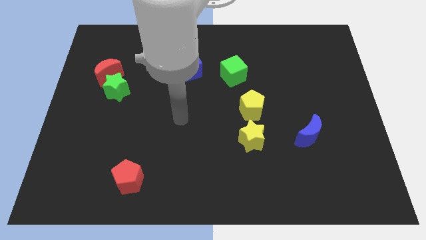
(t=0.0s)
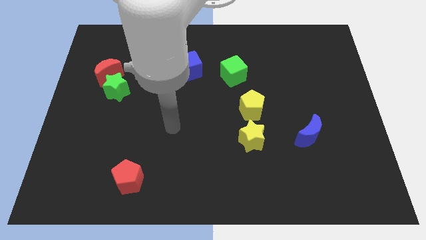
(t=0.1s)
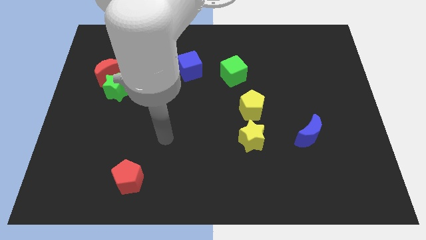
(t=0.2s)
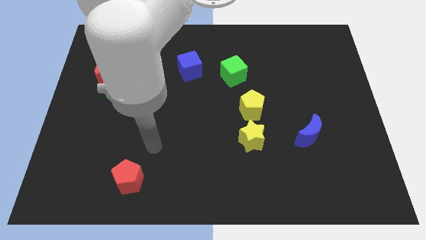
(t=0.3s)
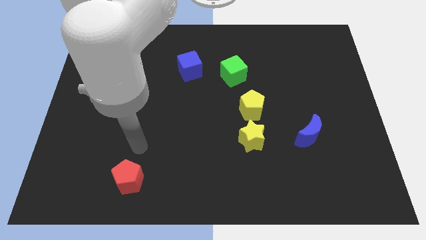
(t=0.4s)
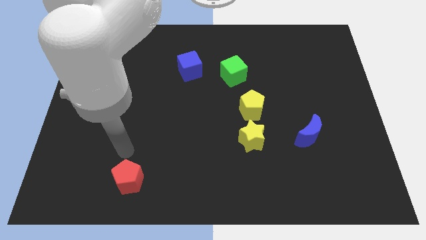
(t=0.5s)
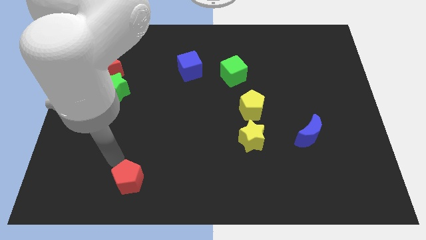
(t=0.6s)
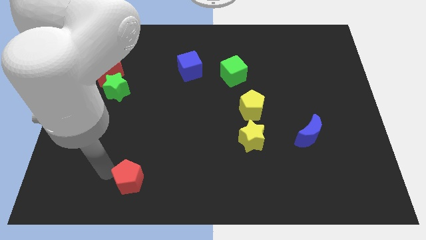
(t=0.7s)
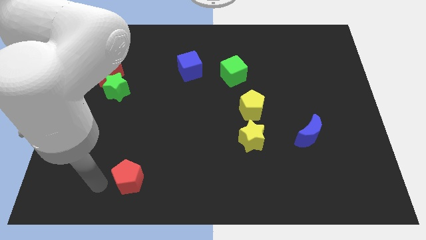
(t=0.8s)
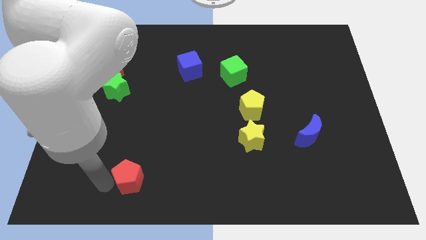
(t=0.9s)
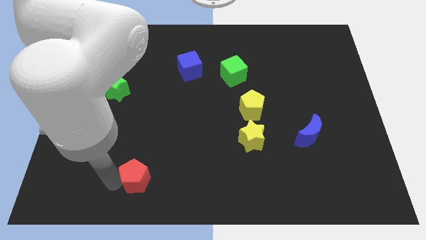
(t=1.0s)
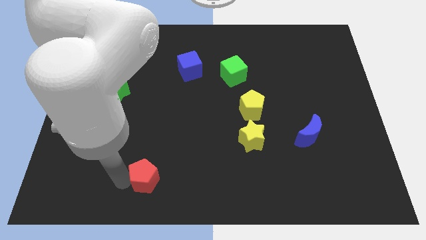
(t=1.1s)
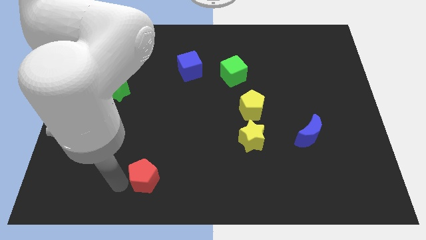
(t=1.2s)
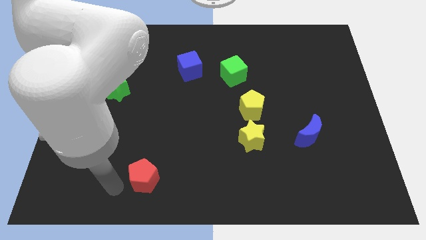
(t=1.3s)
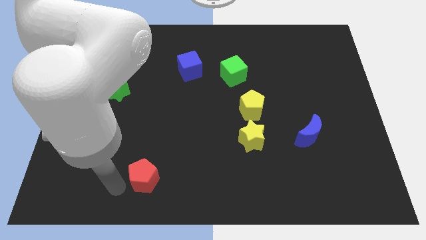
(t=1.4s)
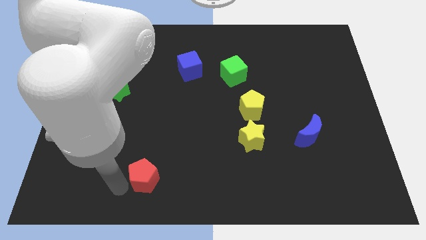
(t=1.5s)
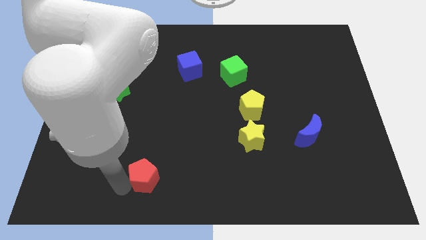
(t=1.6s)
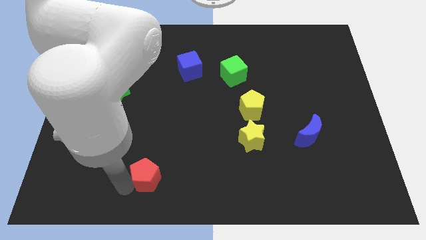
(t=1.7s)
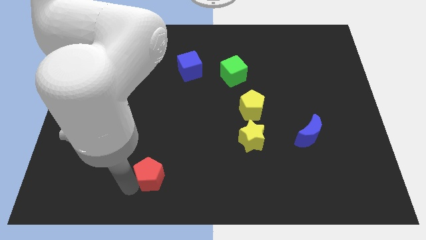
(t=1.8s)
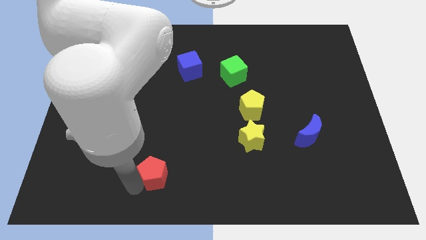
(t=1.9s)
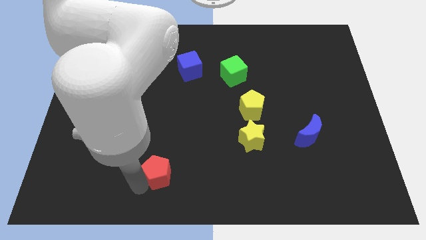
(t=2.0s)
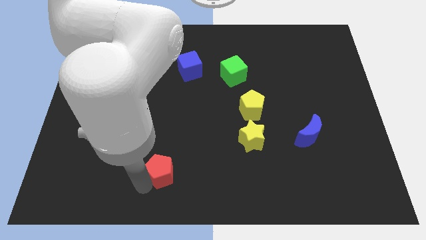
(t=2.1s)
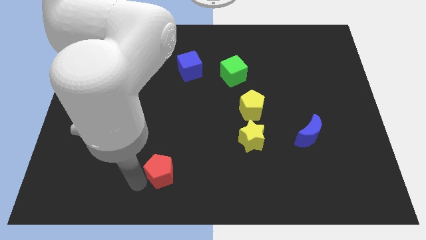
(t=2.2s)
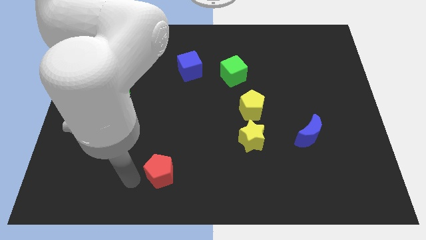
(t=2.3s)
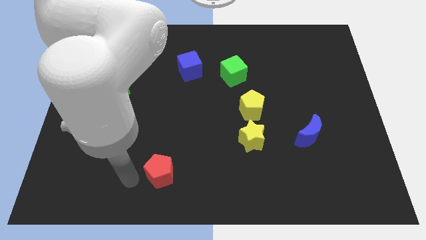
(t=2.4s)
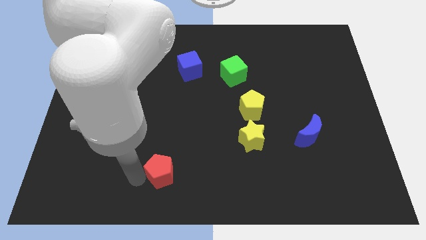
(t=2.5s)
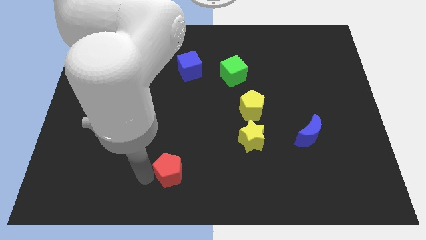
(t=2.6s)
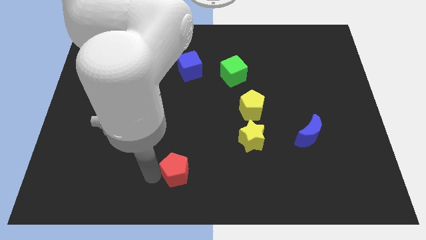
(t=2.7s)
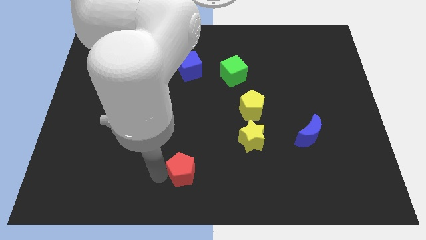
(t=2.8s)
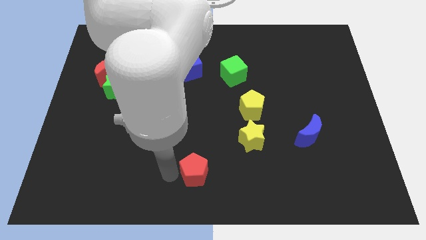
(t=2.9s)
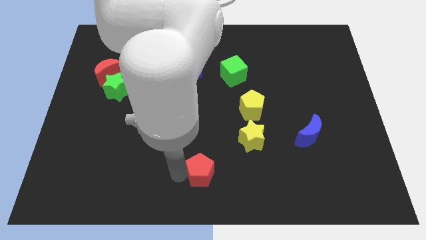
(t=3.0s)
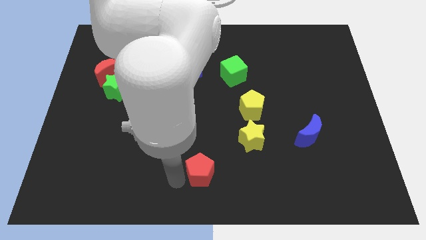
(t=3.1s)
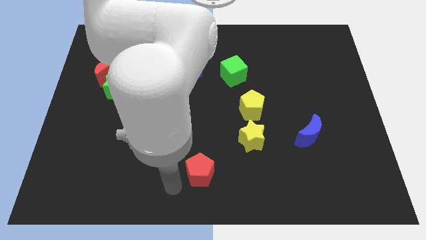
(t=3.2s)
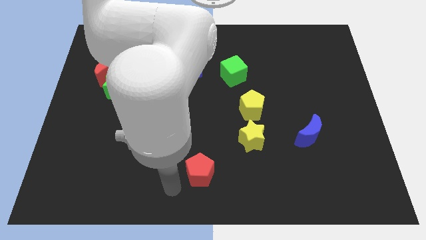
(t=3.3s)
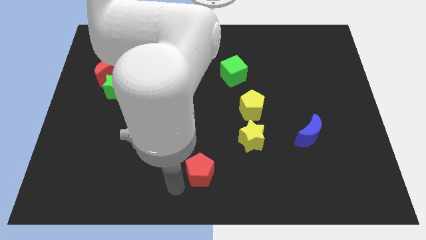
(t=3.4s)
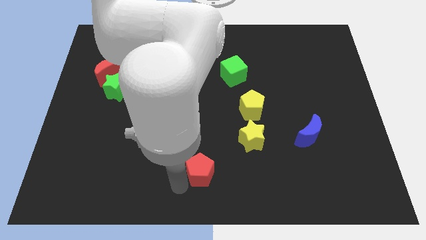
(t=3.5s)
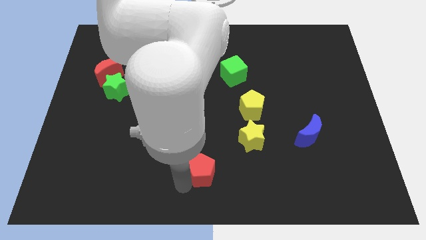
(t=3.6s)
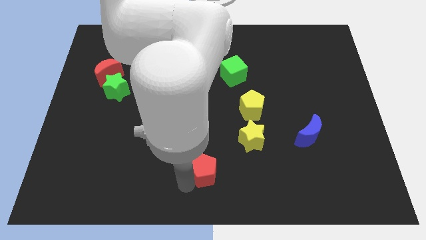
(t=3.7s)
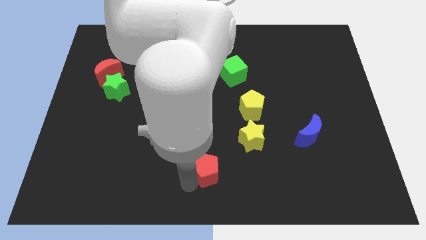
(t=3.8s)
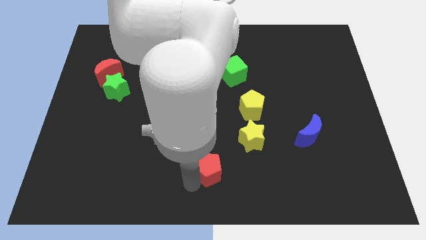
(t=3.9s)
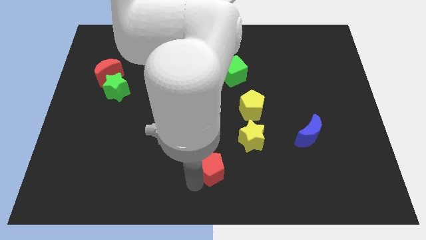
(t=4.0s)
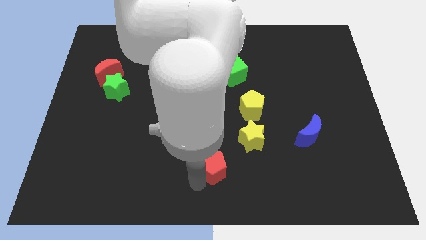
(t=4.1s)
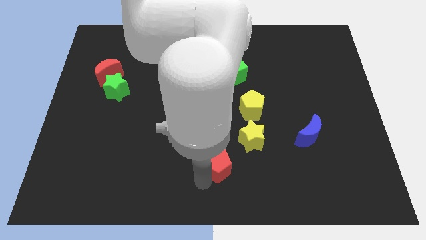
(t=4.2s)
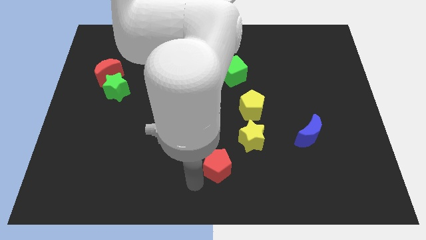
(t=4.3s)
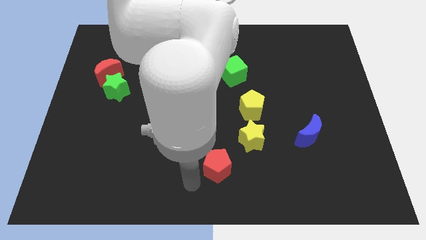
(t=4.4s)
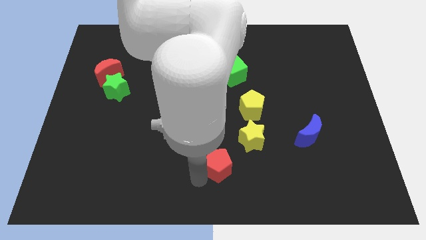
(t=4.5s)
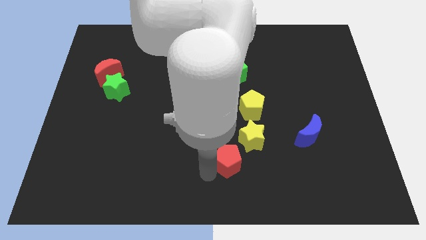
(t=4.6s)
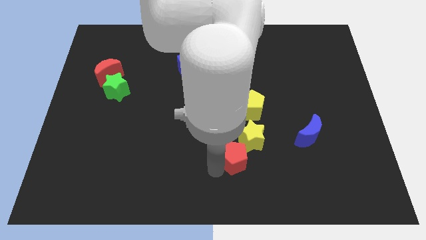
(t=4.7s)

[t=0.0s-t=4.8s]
slide the red pentagon to the bottom of the yellow pentagon

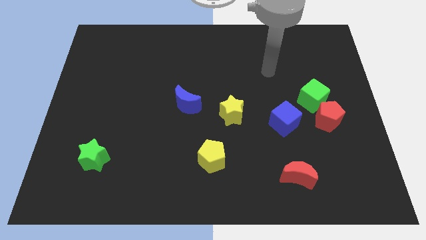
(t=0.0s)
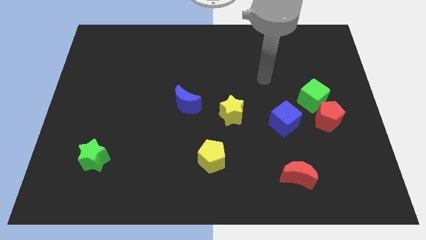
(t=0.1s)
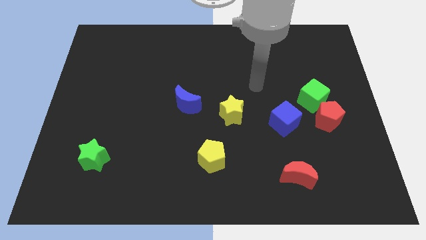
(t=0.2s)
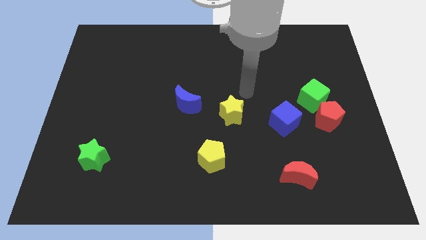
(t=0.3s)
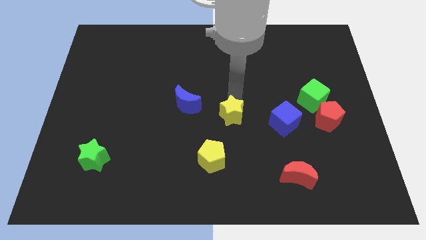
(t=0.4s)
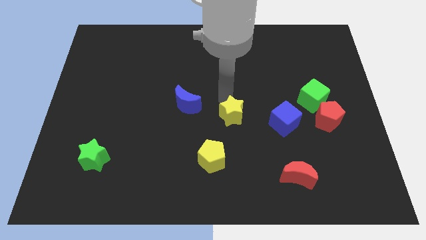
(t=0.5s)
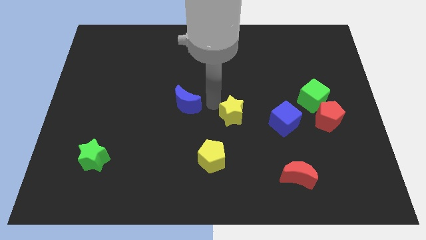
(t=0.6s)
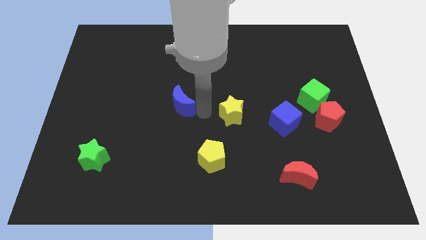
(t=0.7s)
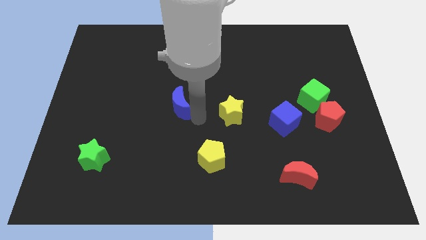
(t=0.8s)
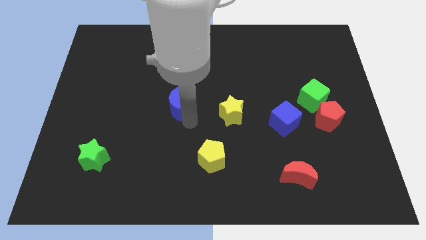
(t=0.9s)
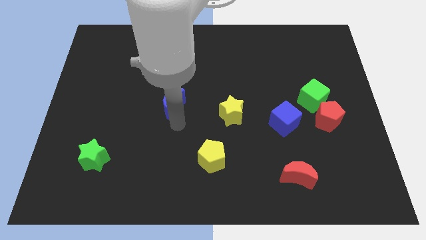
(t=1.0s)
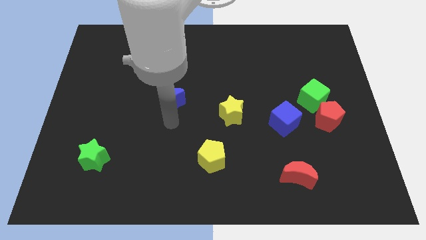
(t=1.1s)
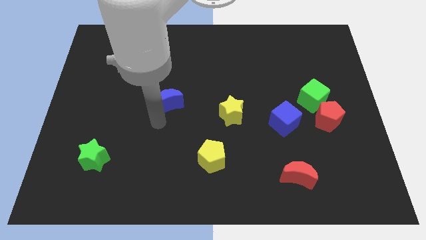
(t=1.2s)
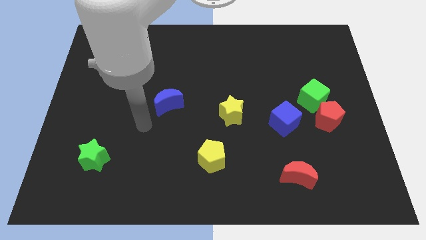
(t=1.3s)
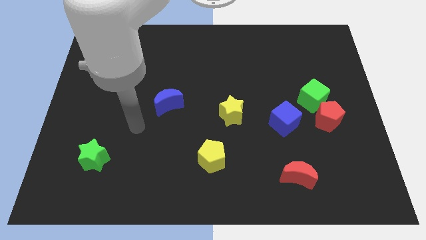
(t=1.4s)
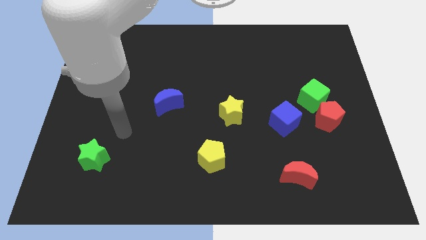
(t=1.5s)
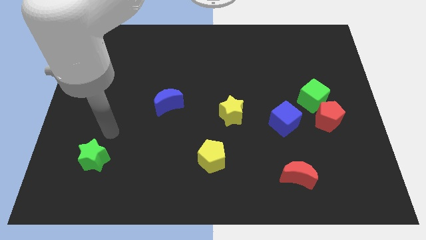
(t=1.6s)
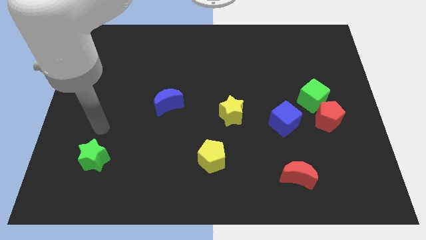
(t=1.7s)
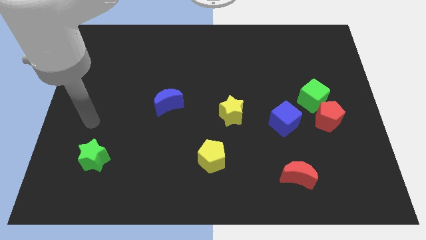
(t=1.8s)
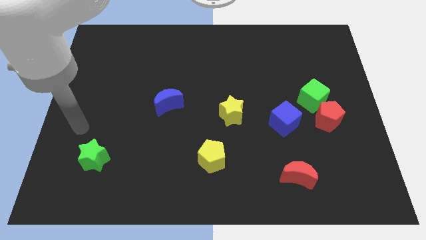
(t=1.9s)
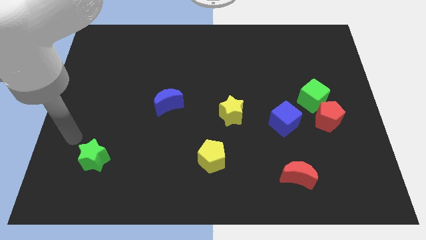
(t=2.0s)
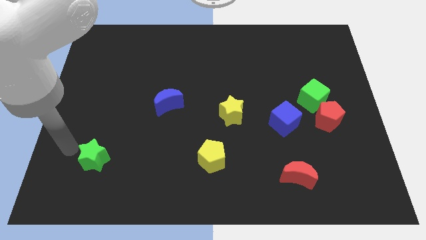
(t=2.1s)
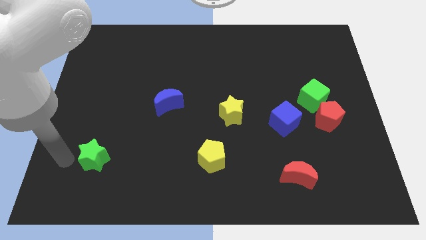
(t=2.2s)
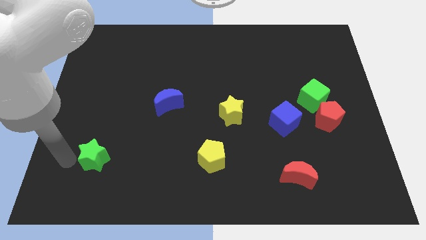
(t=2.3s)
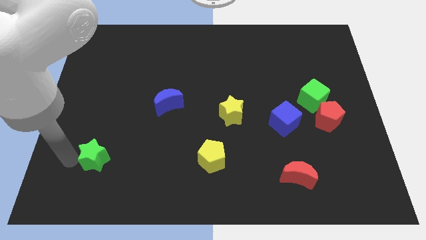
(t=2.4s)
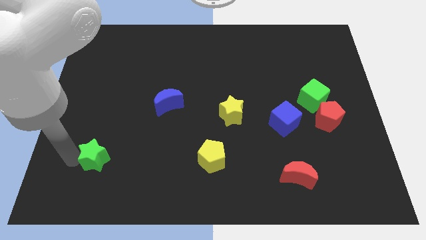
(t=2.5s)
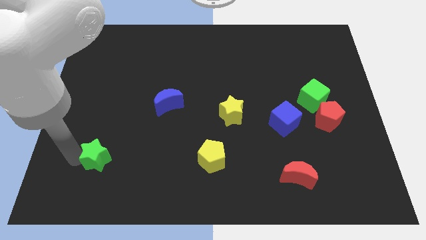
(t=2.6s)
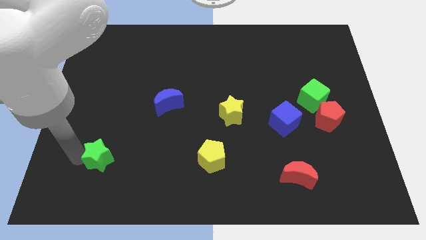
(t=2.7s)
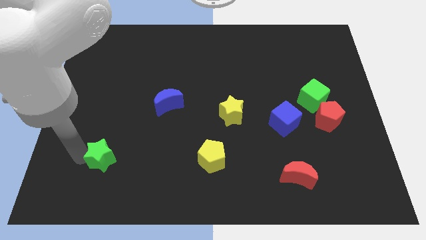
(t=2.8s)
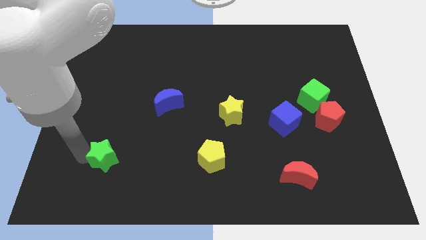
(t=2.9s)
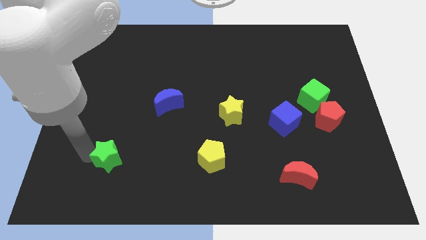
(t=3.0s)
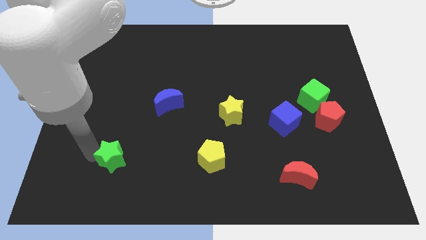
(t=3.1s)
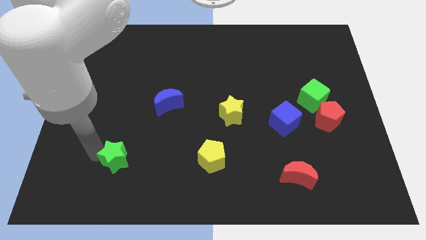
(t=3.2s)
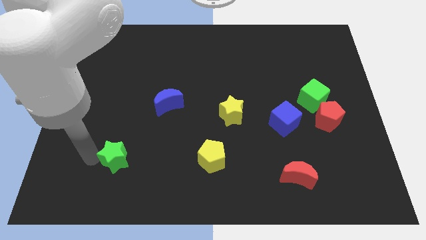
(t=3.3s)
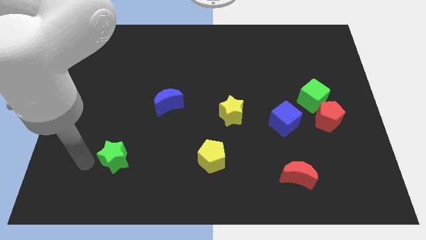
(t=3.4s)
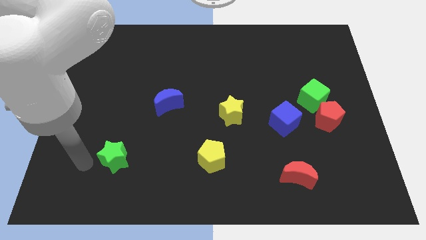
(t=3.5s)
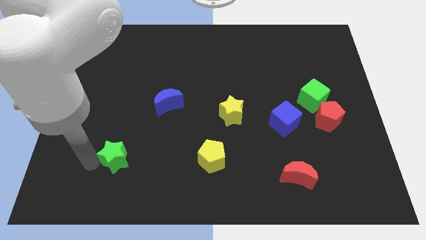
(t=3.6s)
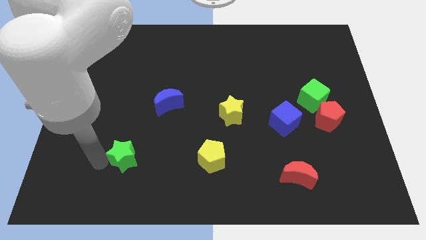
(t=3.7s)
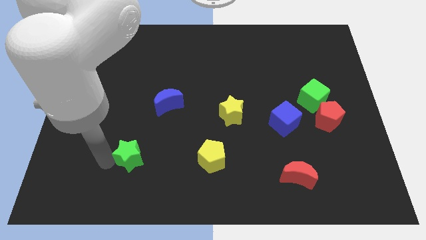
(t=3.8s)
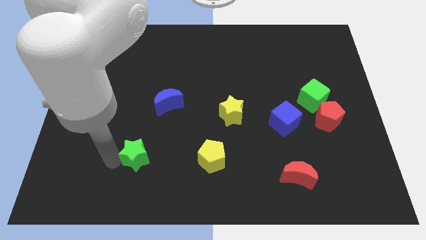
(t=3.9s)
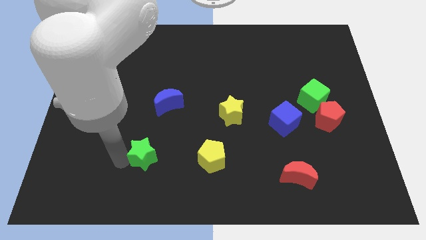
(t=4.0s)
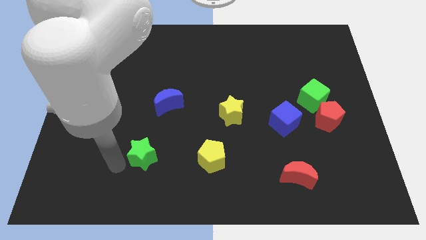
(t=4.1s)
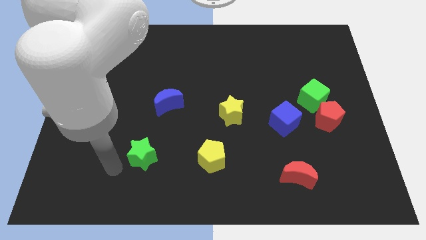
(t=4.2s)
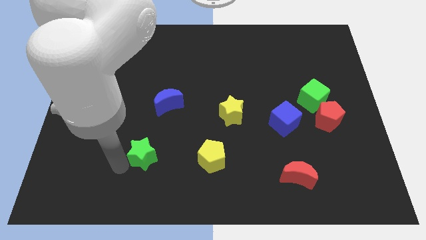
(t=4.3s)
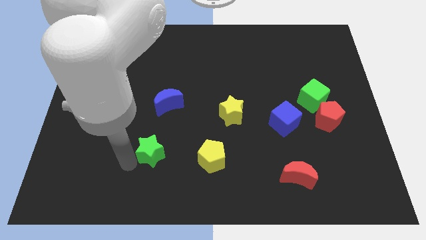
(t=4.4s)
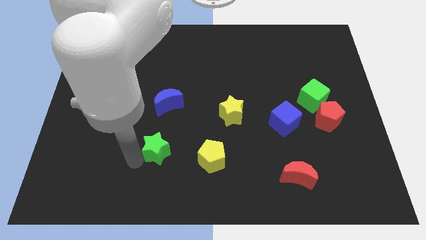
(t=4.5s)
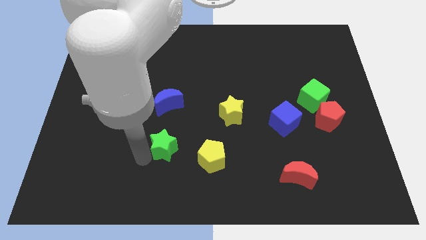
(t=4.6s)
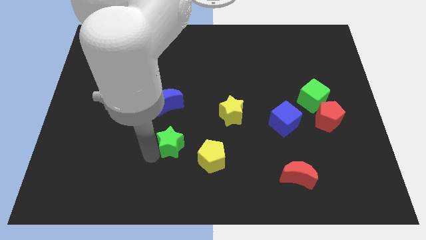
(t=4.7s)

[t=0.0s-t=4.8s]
slide the green star to the top left of the yellow pentagon
